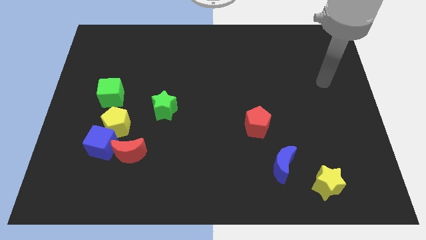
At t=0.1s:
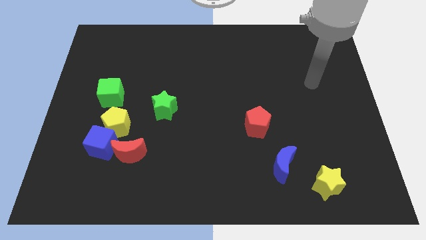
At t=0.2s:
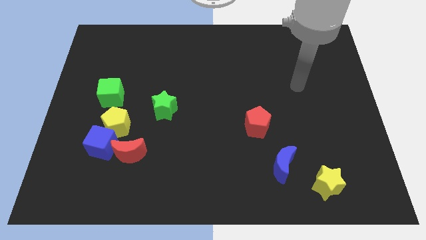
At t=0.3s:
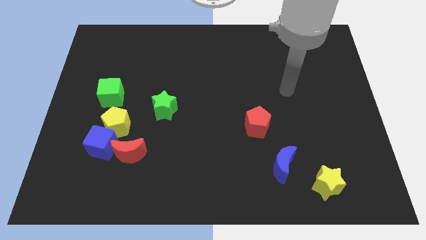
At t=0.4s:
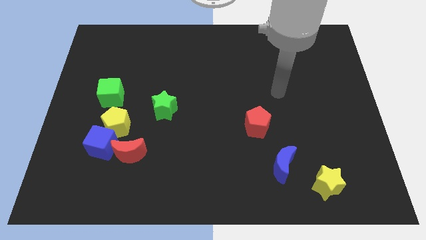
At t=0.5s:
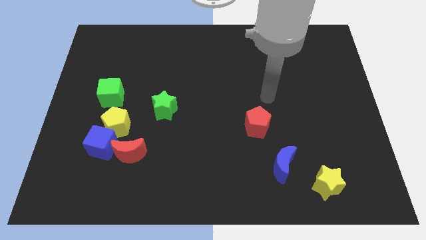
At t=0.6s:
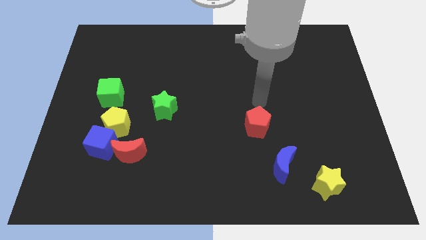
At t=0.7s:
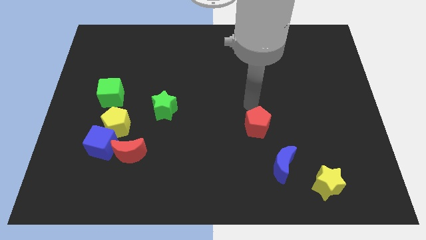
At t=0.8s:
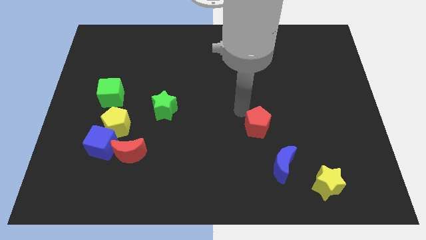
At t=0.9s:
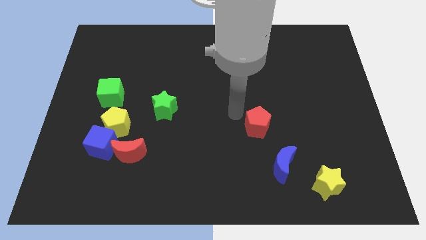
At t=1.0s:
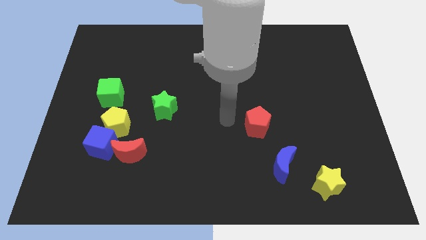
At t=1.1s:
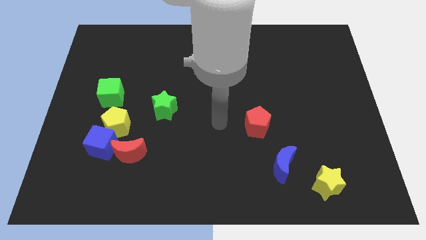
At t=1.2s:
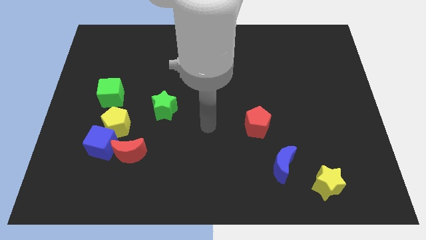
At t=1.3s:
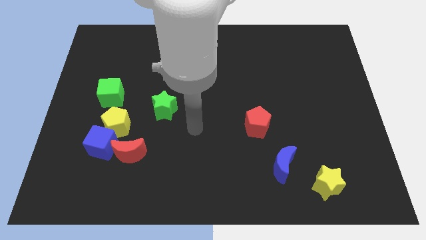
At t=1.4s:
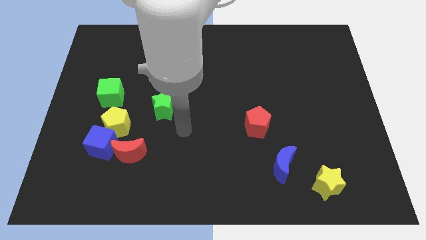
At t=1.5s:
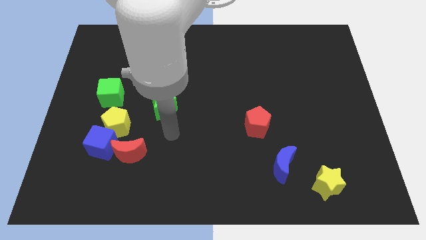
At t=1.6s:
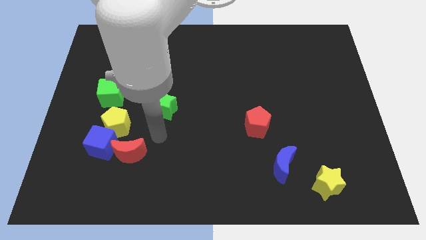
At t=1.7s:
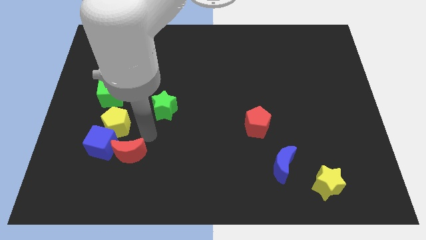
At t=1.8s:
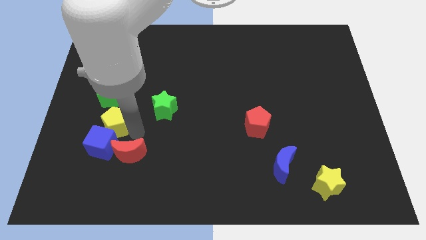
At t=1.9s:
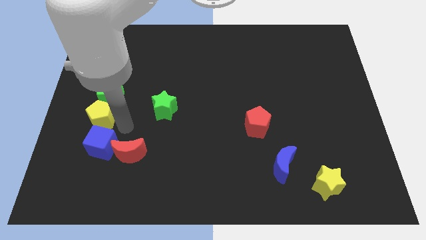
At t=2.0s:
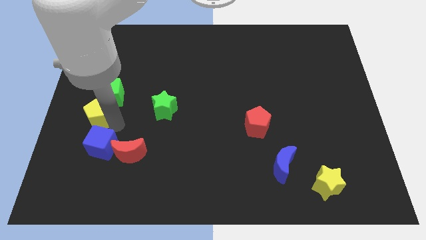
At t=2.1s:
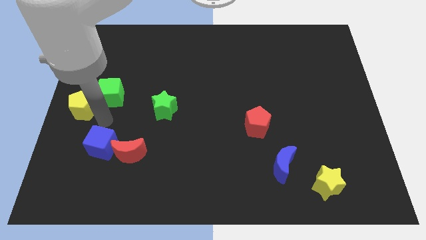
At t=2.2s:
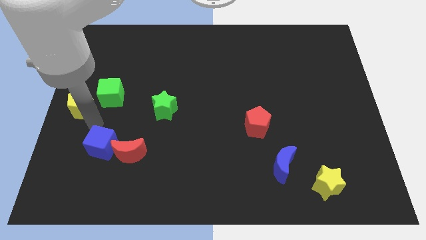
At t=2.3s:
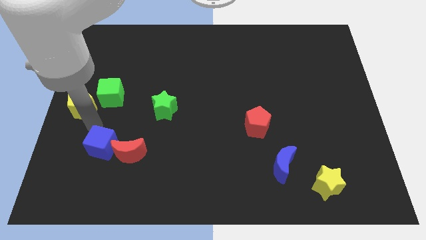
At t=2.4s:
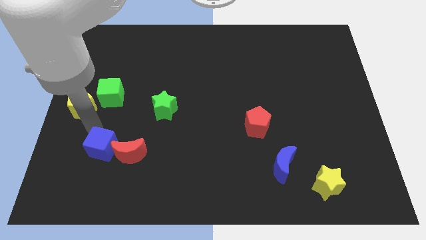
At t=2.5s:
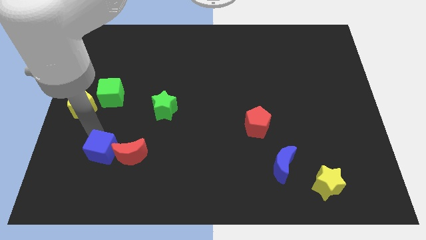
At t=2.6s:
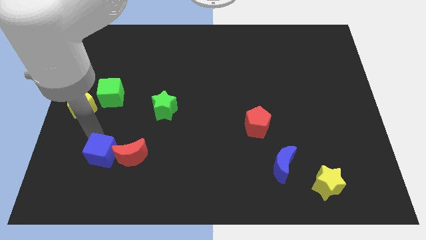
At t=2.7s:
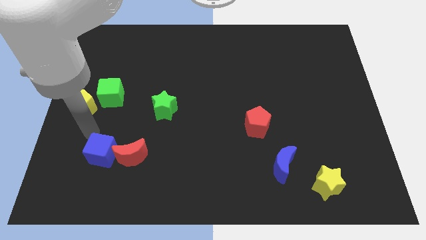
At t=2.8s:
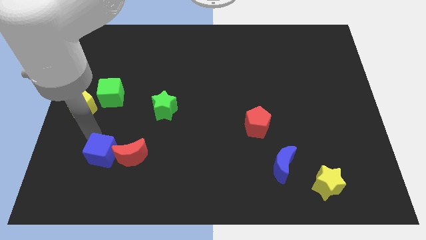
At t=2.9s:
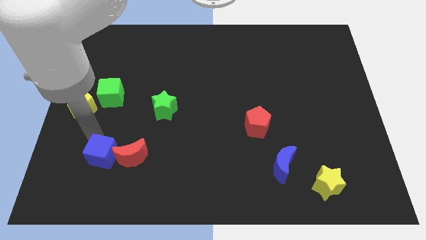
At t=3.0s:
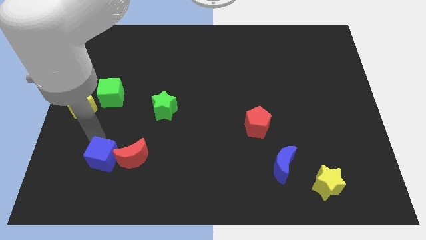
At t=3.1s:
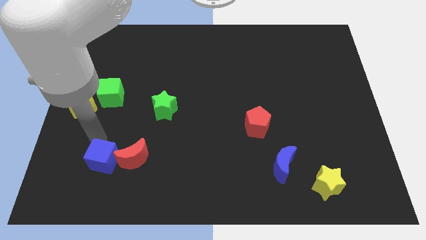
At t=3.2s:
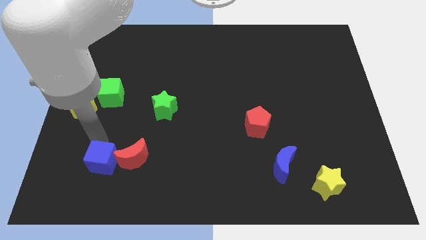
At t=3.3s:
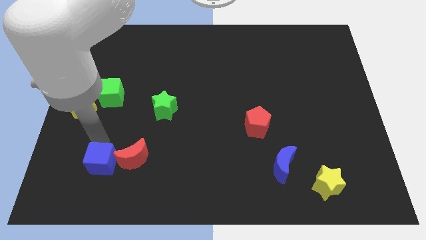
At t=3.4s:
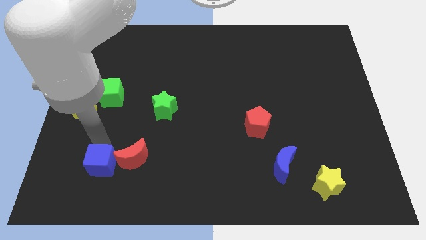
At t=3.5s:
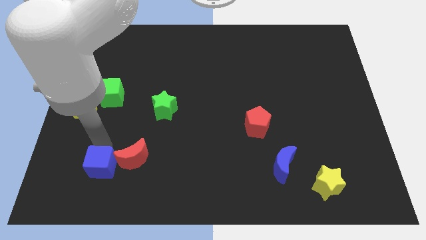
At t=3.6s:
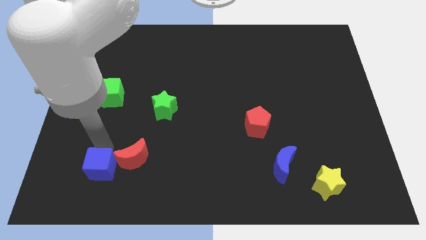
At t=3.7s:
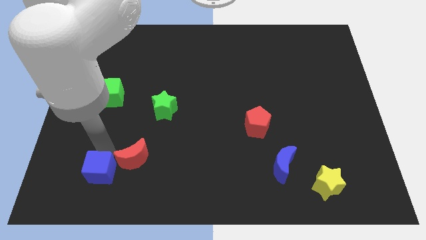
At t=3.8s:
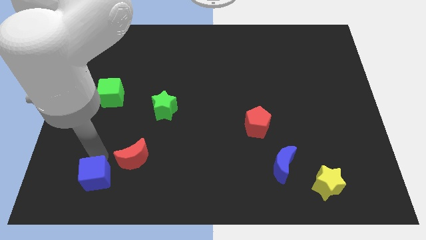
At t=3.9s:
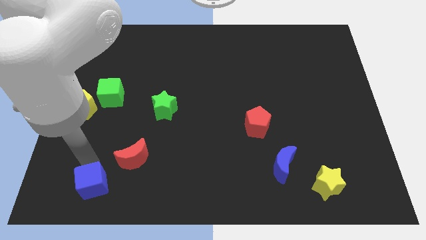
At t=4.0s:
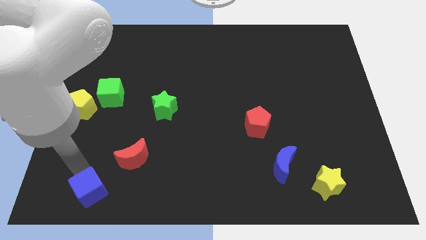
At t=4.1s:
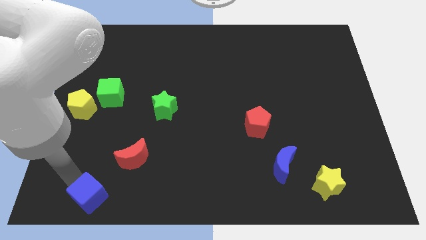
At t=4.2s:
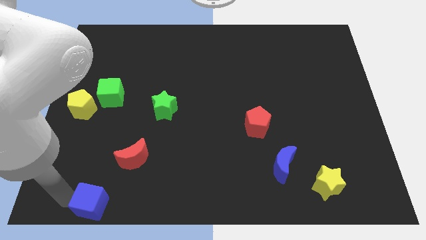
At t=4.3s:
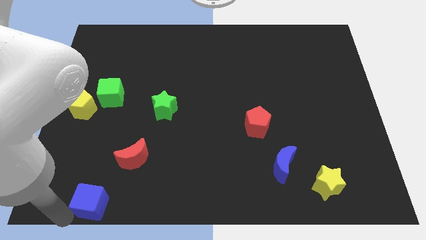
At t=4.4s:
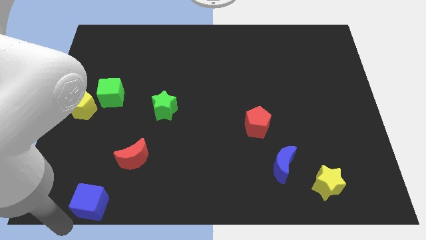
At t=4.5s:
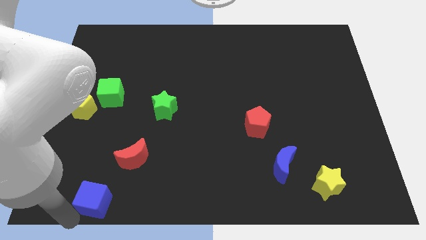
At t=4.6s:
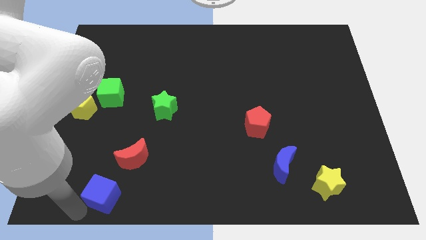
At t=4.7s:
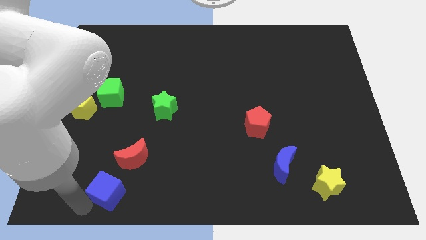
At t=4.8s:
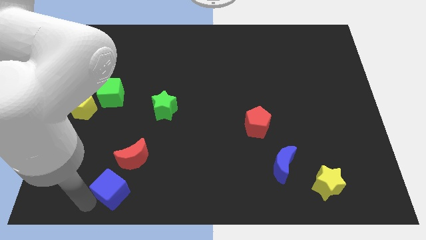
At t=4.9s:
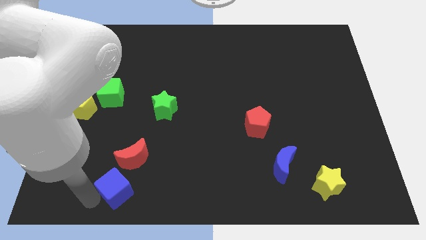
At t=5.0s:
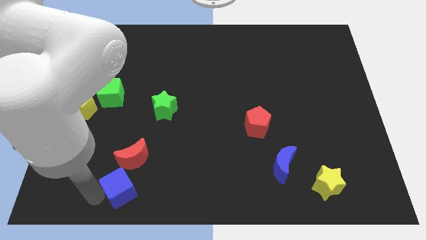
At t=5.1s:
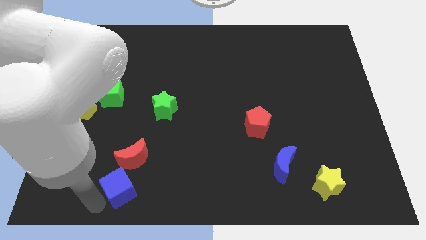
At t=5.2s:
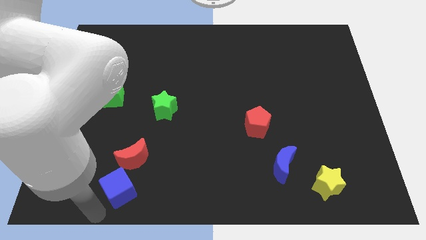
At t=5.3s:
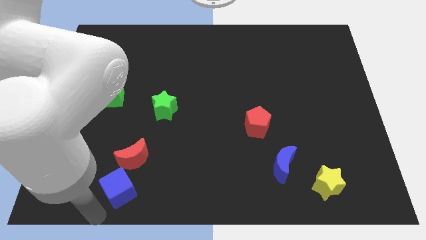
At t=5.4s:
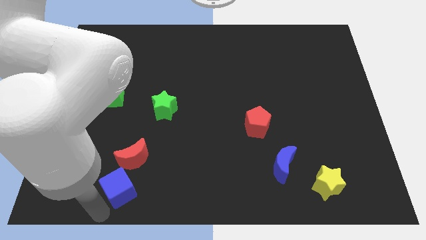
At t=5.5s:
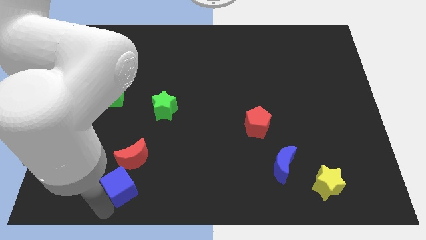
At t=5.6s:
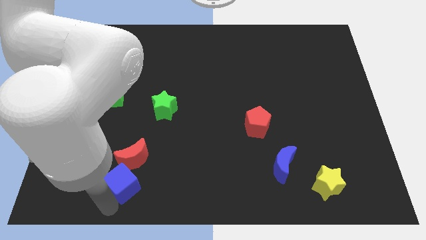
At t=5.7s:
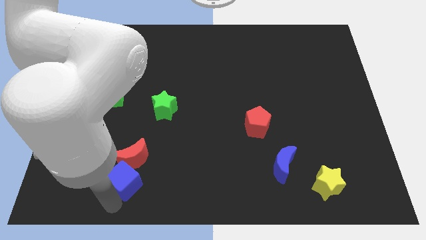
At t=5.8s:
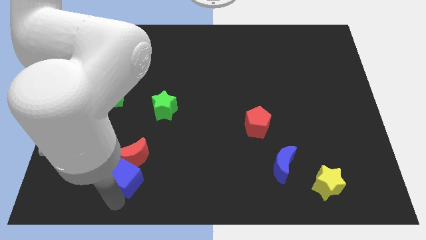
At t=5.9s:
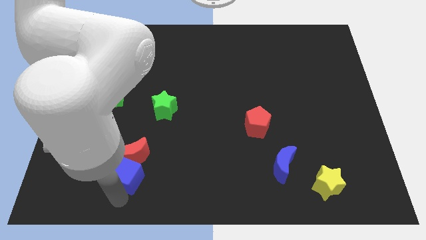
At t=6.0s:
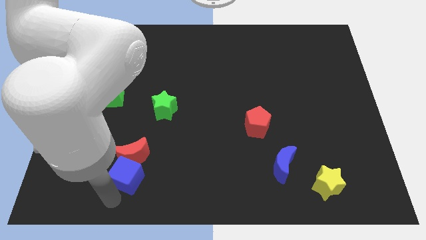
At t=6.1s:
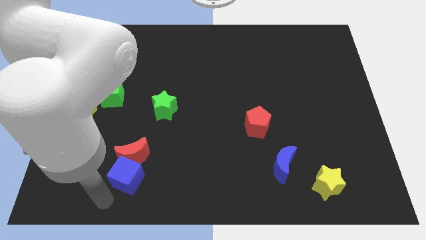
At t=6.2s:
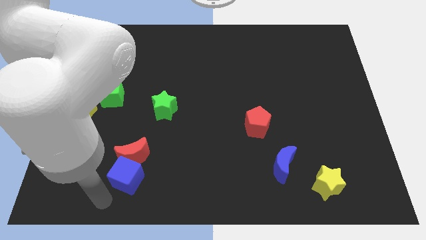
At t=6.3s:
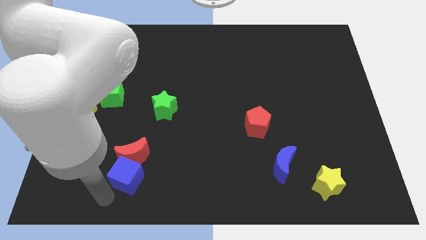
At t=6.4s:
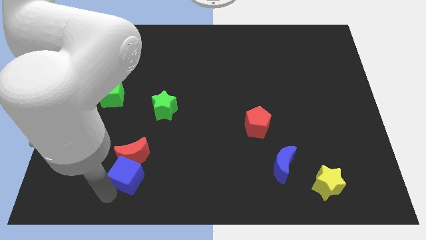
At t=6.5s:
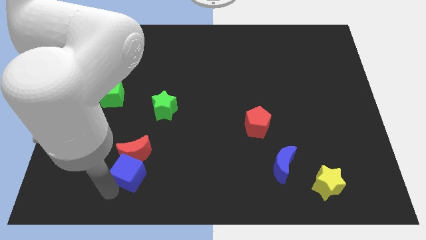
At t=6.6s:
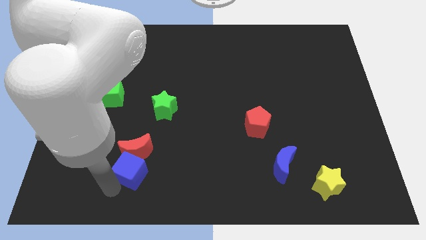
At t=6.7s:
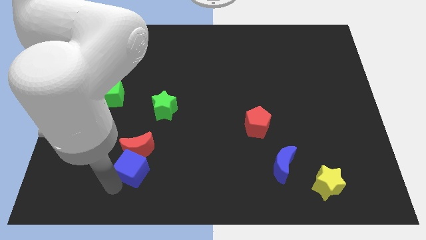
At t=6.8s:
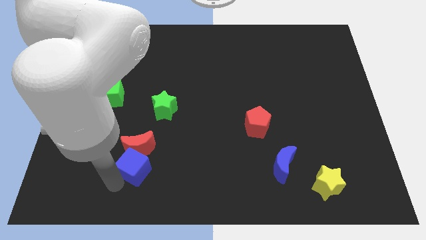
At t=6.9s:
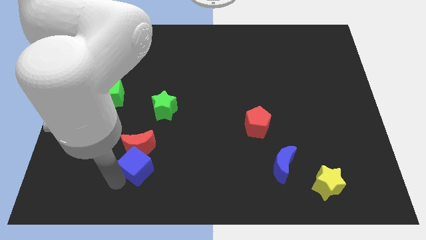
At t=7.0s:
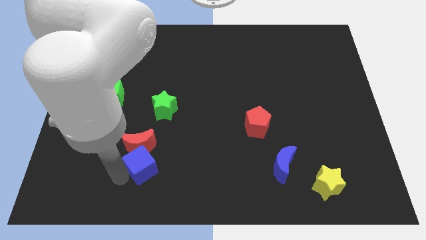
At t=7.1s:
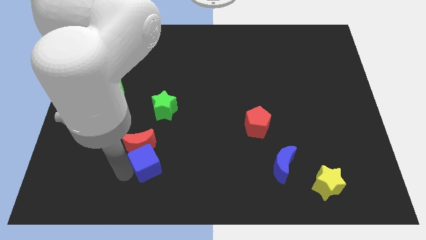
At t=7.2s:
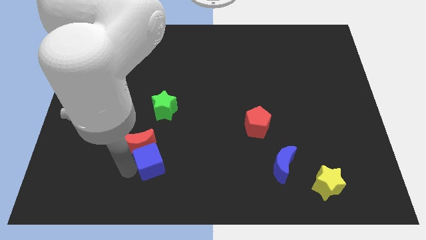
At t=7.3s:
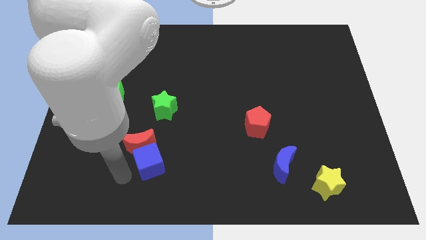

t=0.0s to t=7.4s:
slide the blue cube right of the red moon
